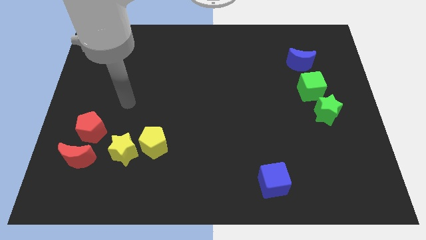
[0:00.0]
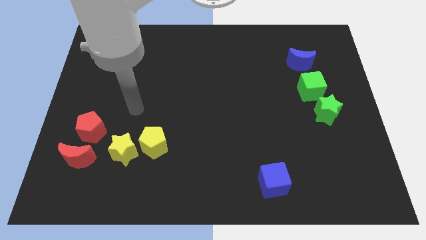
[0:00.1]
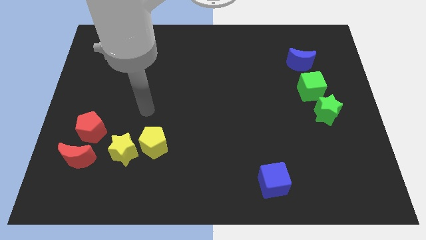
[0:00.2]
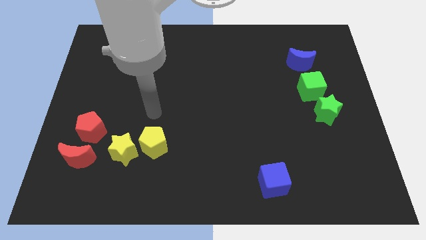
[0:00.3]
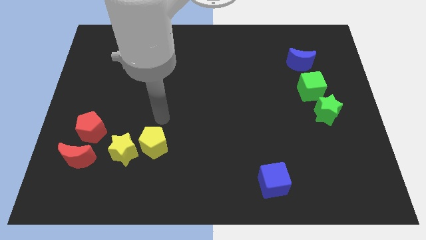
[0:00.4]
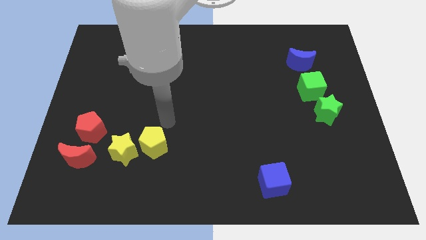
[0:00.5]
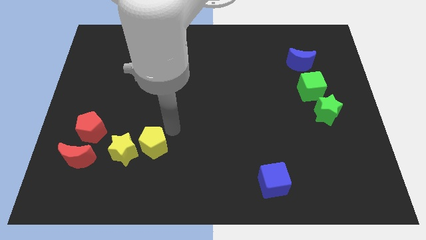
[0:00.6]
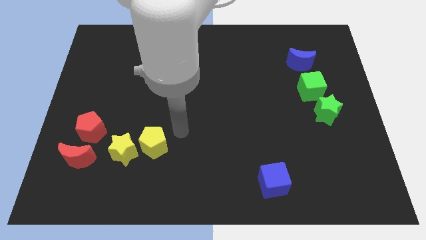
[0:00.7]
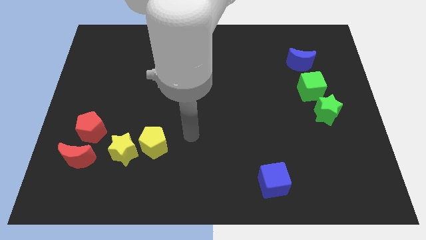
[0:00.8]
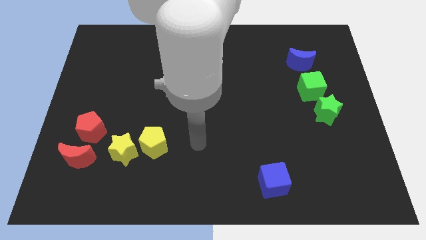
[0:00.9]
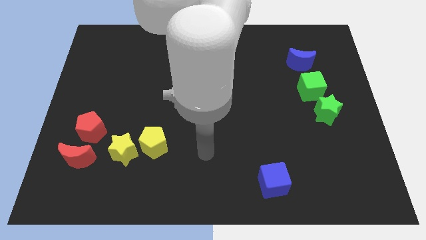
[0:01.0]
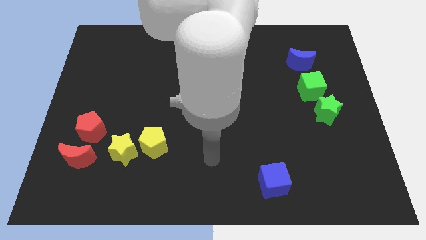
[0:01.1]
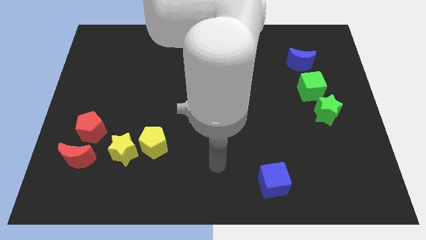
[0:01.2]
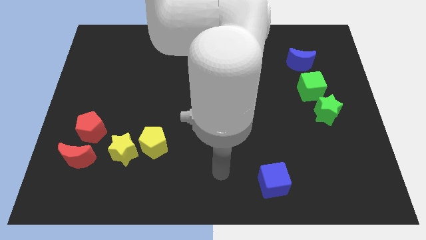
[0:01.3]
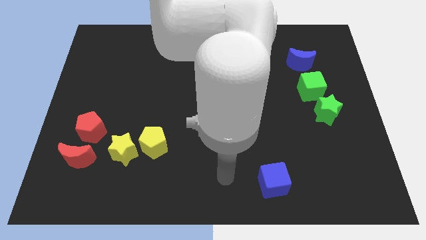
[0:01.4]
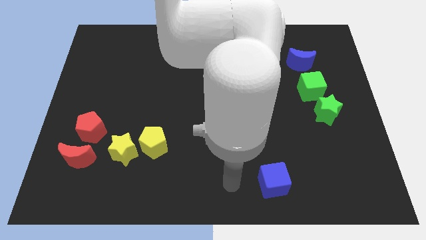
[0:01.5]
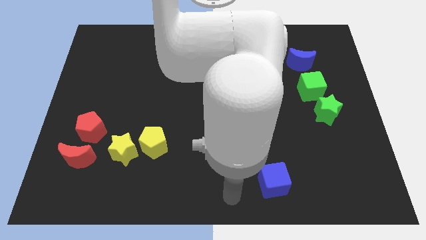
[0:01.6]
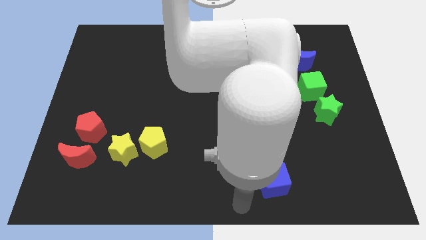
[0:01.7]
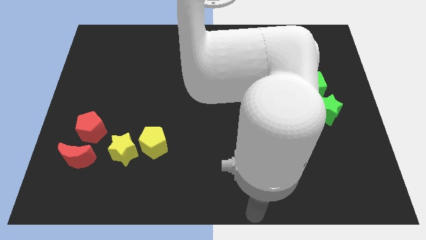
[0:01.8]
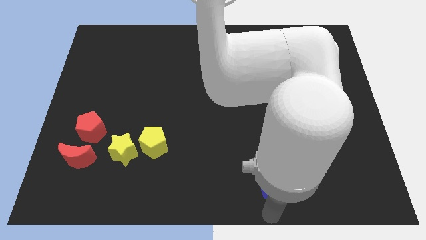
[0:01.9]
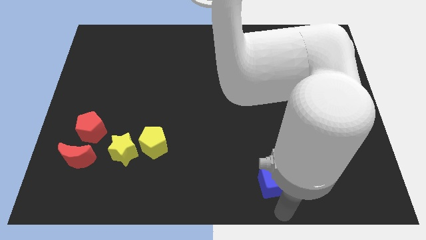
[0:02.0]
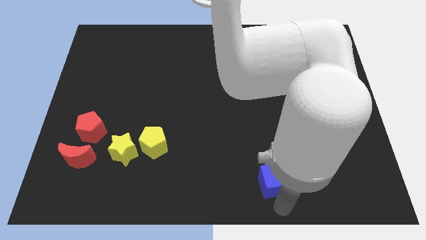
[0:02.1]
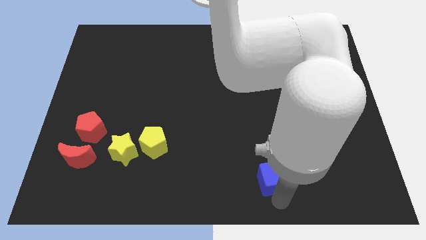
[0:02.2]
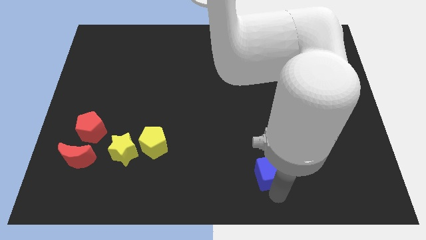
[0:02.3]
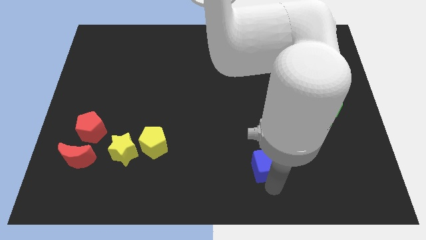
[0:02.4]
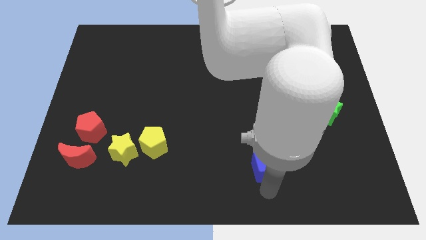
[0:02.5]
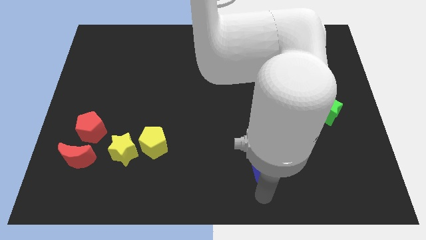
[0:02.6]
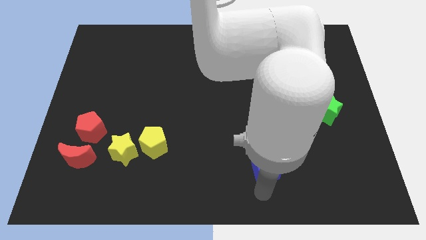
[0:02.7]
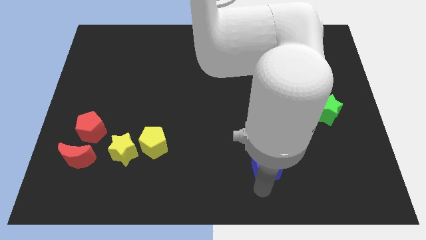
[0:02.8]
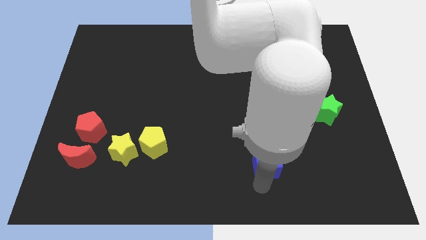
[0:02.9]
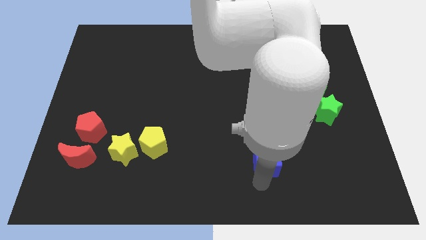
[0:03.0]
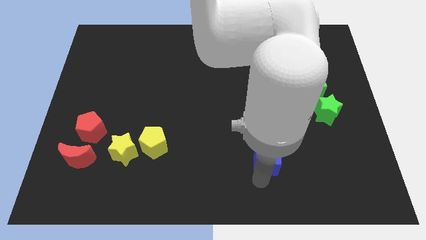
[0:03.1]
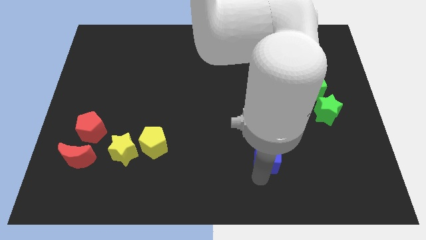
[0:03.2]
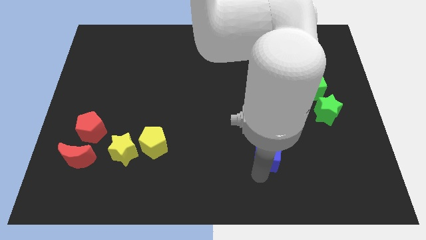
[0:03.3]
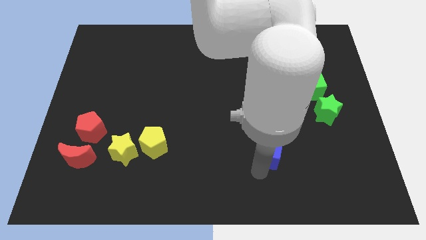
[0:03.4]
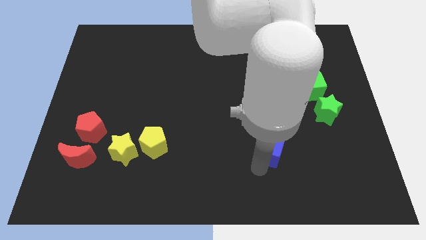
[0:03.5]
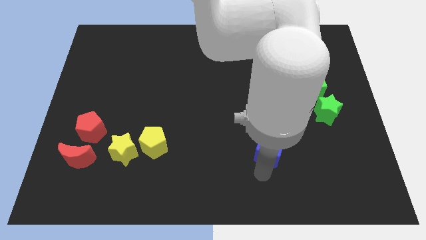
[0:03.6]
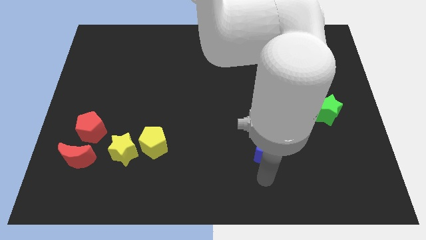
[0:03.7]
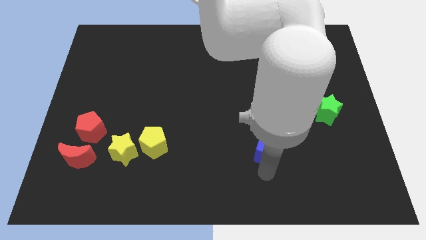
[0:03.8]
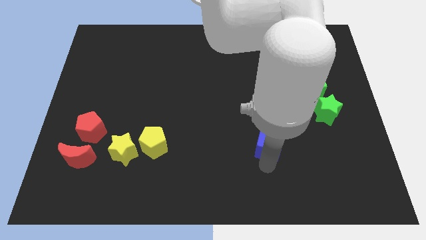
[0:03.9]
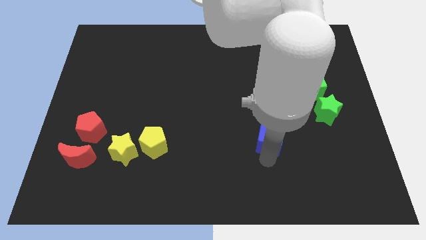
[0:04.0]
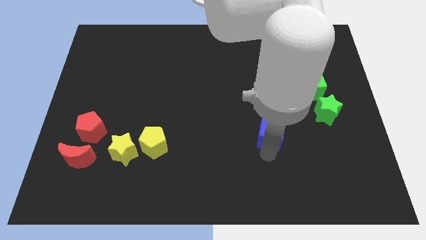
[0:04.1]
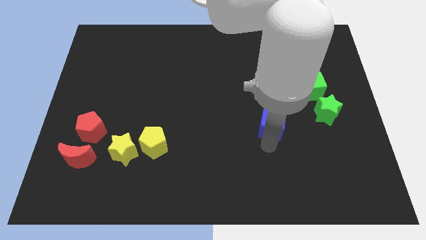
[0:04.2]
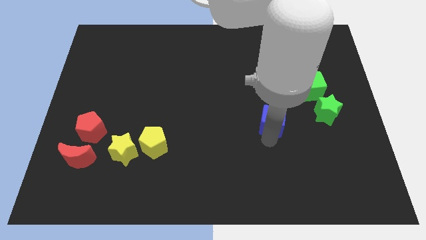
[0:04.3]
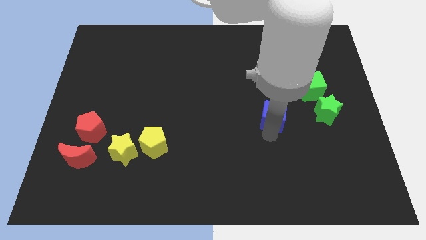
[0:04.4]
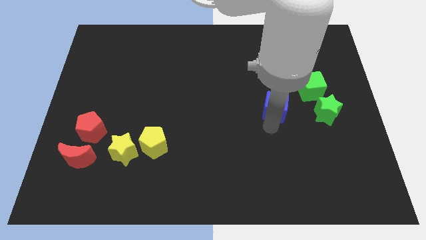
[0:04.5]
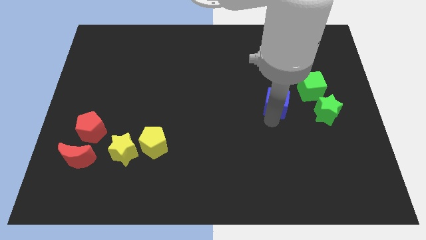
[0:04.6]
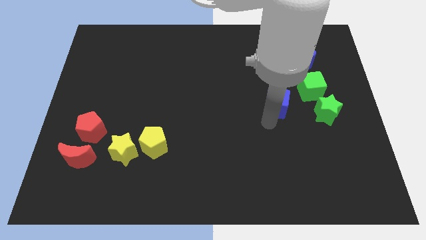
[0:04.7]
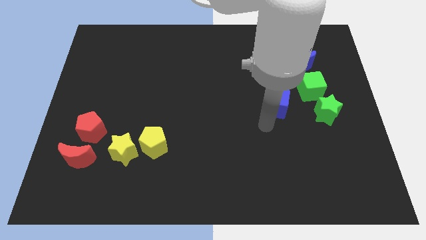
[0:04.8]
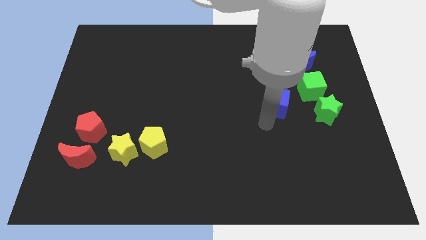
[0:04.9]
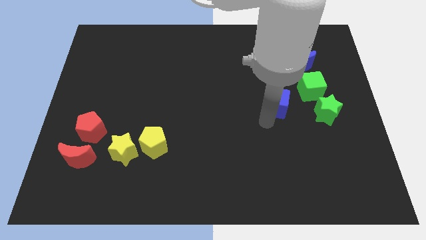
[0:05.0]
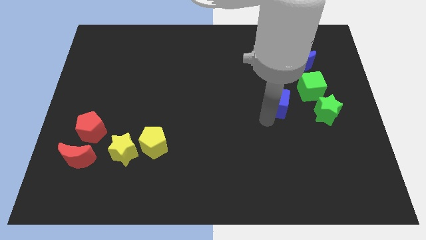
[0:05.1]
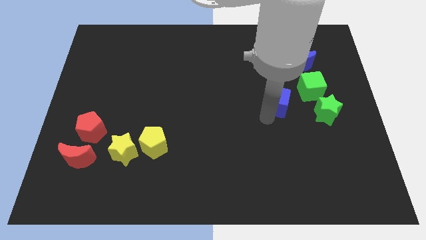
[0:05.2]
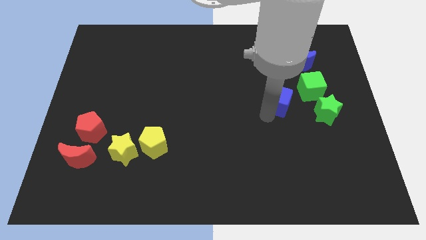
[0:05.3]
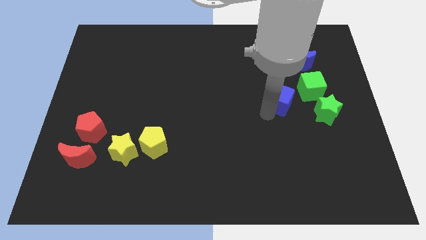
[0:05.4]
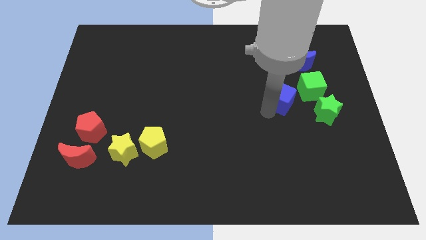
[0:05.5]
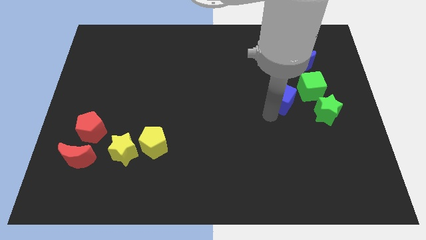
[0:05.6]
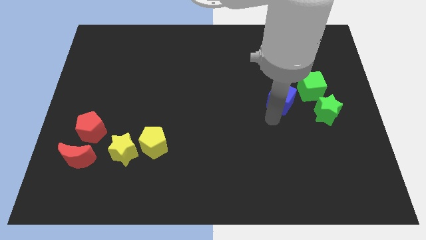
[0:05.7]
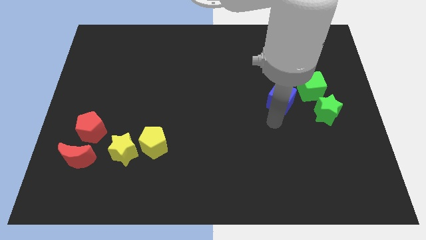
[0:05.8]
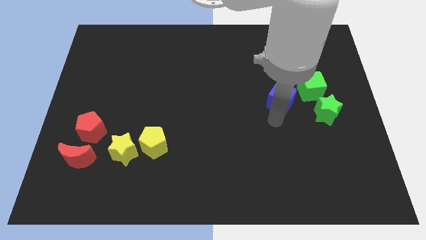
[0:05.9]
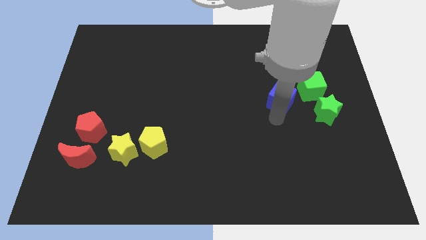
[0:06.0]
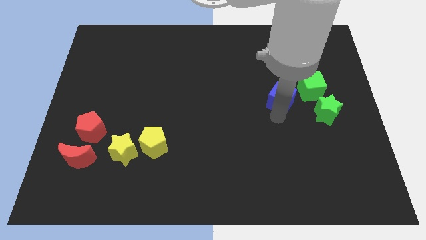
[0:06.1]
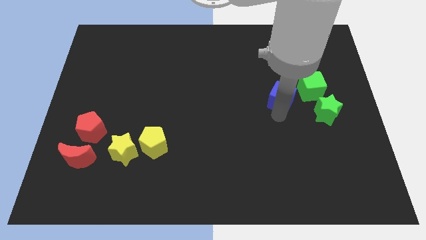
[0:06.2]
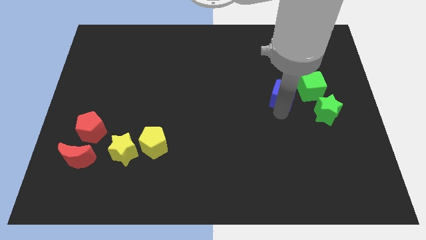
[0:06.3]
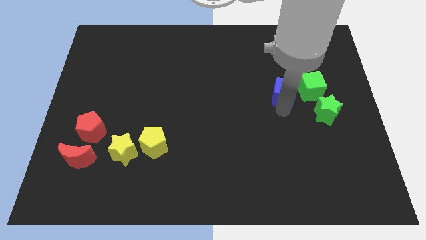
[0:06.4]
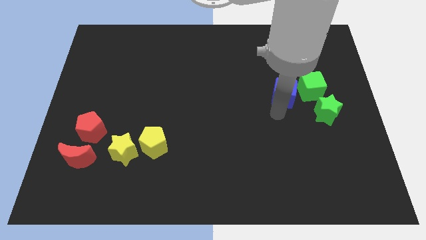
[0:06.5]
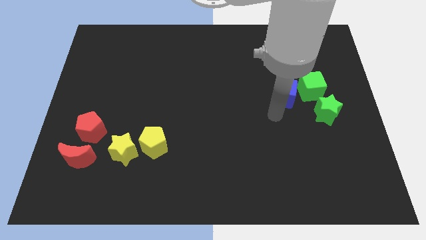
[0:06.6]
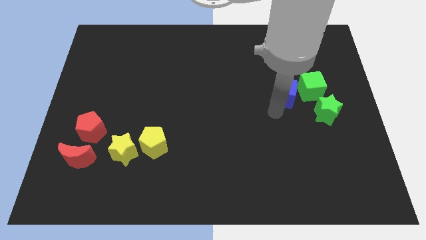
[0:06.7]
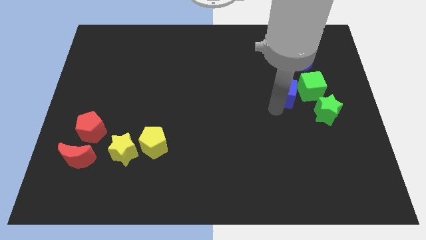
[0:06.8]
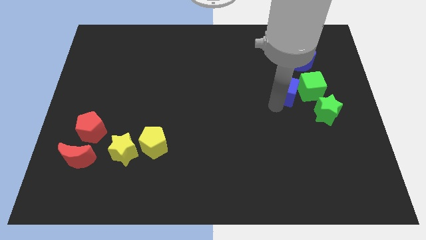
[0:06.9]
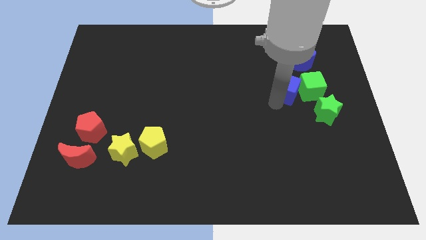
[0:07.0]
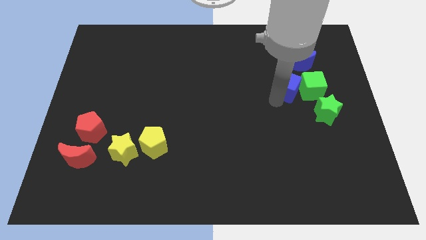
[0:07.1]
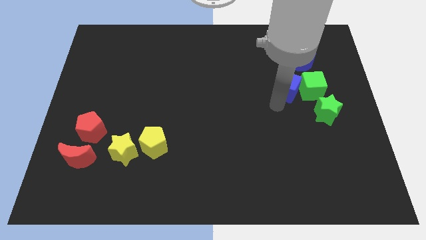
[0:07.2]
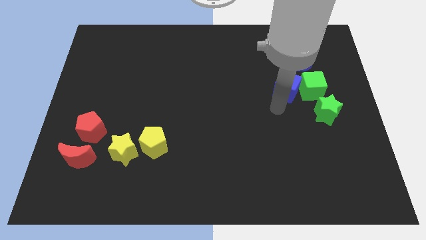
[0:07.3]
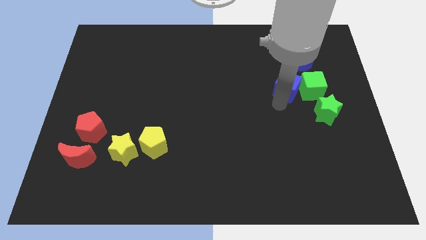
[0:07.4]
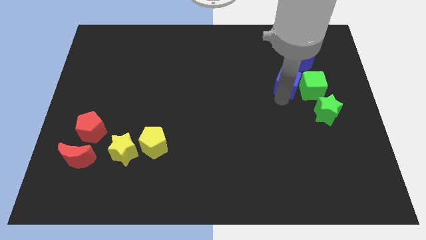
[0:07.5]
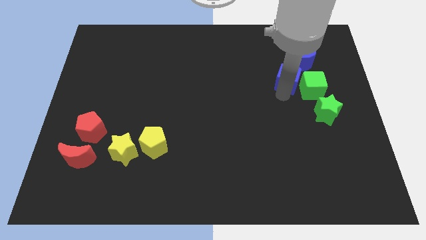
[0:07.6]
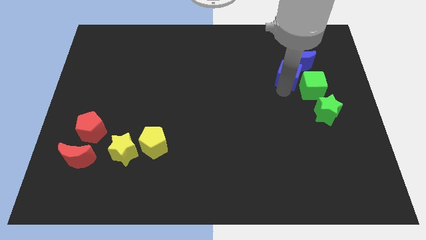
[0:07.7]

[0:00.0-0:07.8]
move the blue cube next to the blue moon
